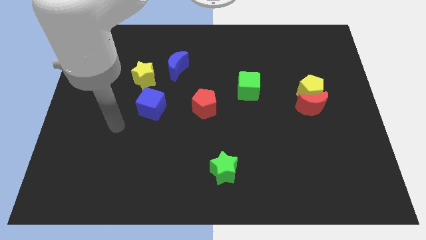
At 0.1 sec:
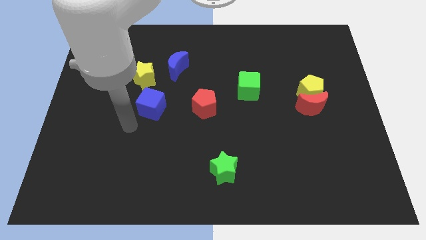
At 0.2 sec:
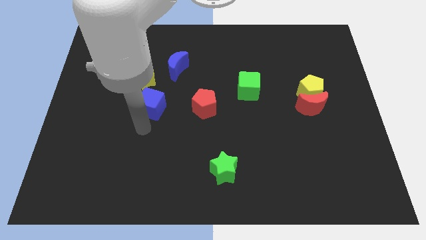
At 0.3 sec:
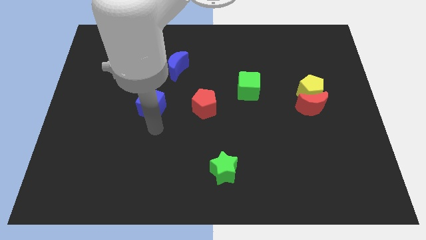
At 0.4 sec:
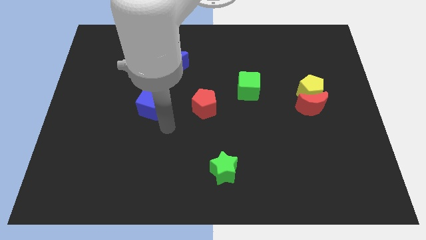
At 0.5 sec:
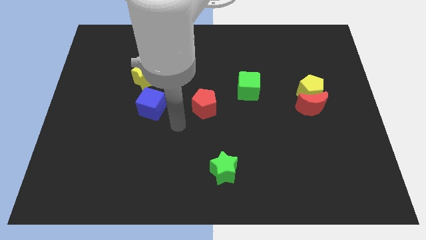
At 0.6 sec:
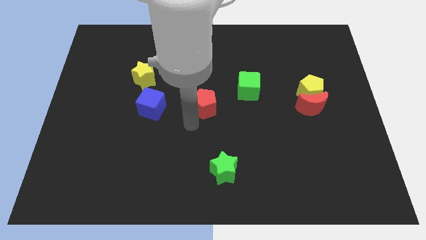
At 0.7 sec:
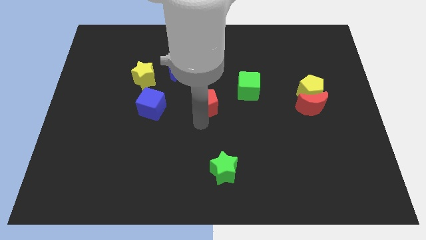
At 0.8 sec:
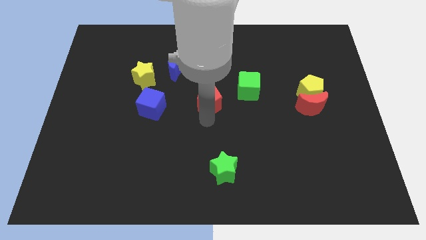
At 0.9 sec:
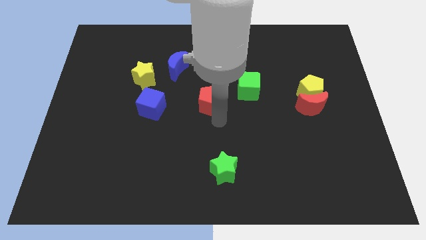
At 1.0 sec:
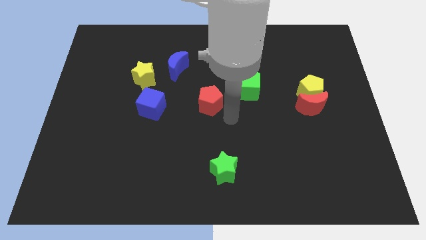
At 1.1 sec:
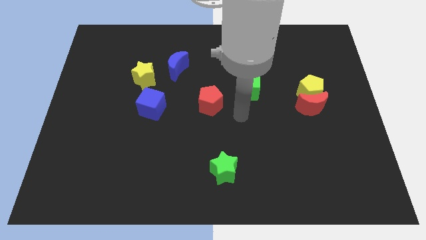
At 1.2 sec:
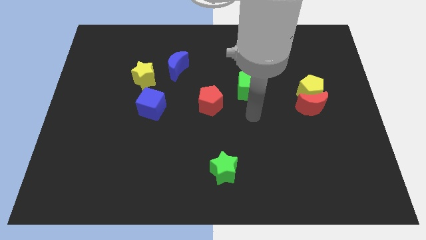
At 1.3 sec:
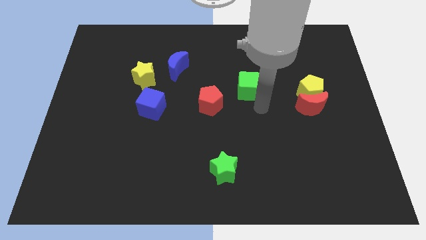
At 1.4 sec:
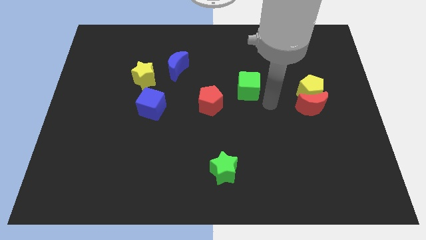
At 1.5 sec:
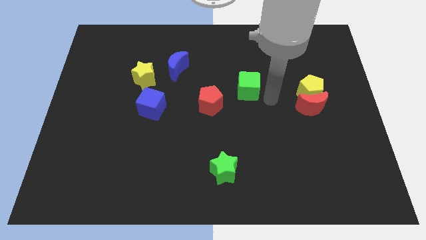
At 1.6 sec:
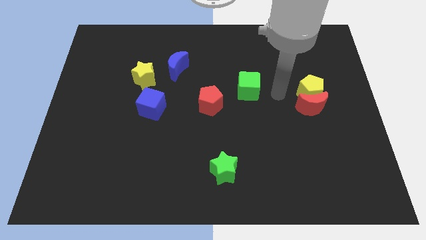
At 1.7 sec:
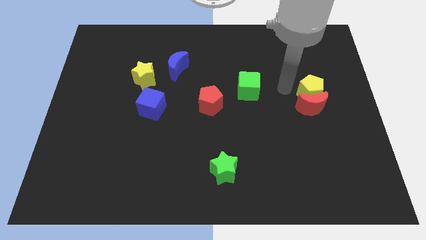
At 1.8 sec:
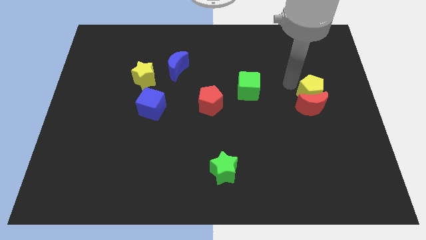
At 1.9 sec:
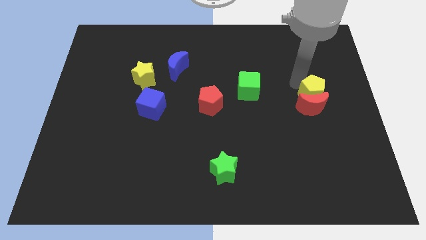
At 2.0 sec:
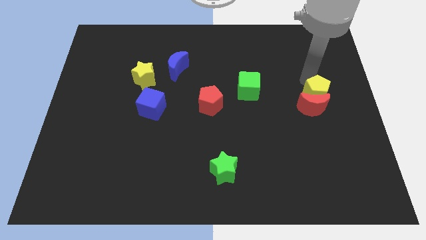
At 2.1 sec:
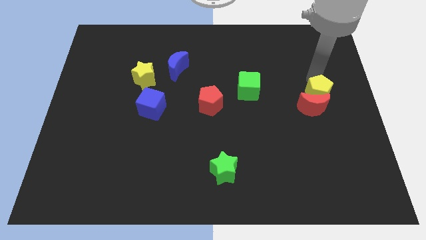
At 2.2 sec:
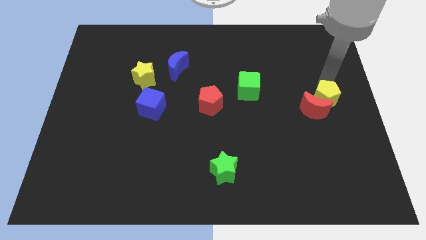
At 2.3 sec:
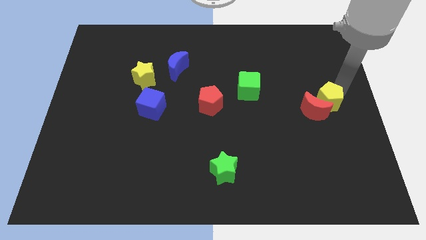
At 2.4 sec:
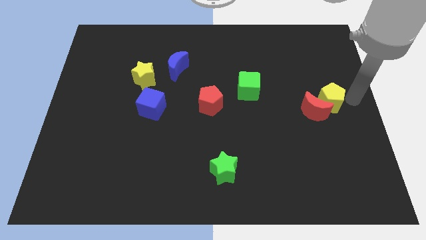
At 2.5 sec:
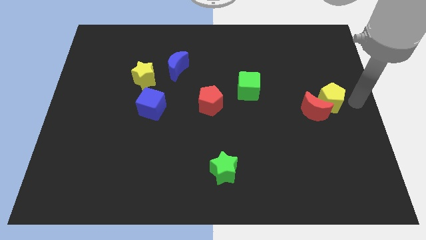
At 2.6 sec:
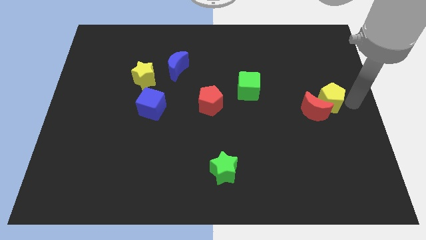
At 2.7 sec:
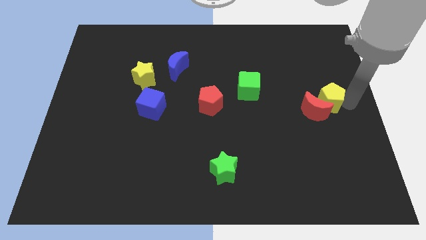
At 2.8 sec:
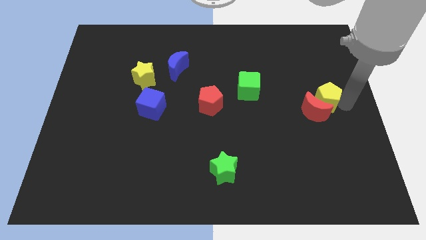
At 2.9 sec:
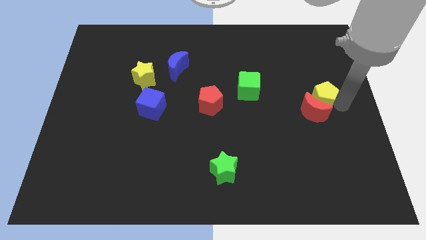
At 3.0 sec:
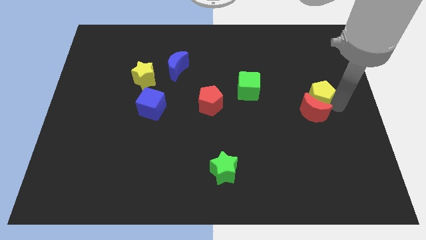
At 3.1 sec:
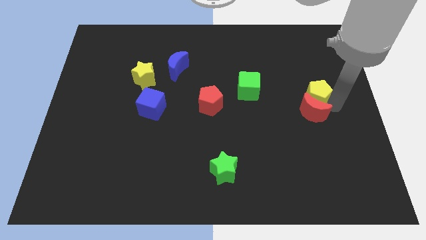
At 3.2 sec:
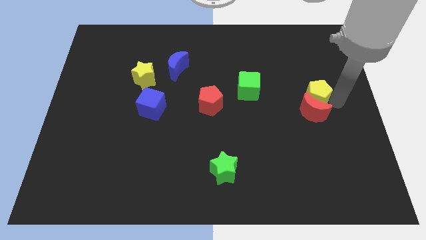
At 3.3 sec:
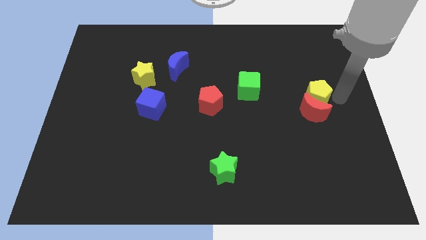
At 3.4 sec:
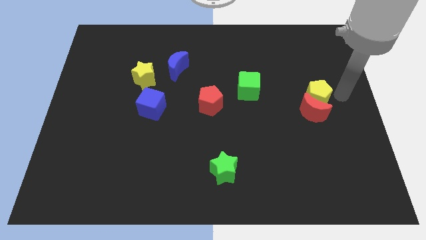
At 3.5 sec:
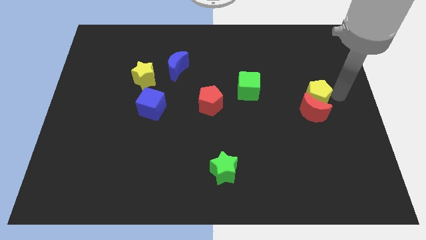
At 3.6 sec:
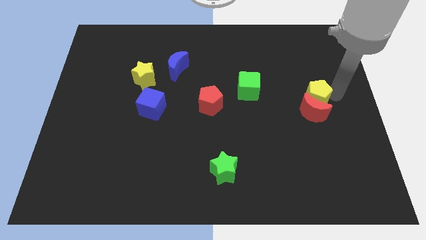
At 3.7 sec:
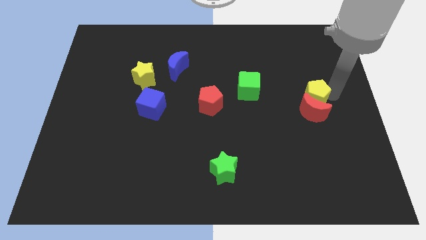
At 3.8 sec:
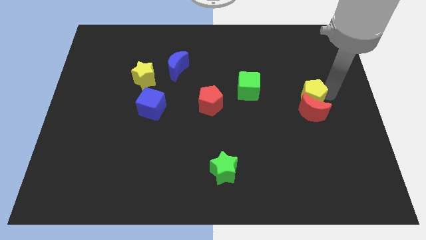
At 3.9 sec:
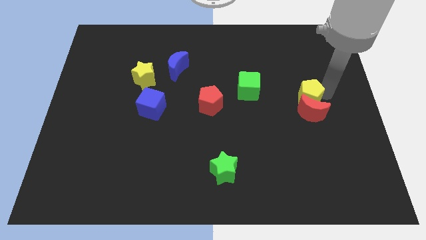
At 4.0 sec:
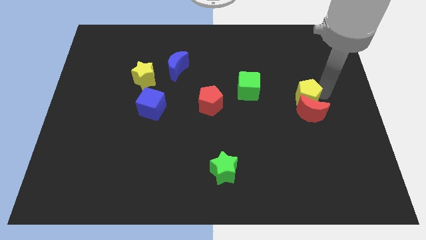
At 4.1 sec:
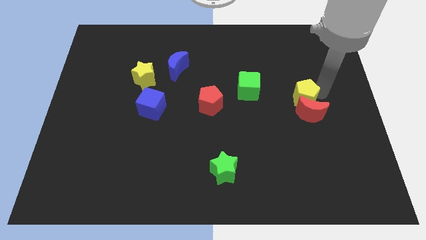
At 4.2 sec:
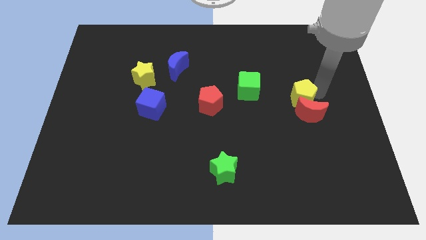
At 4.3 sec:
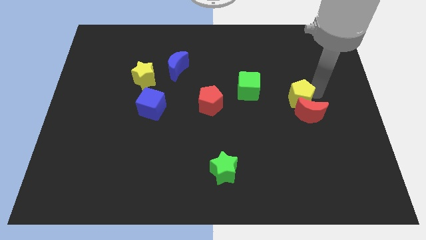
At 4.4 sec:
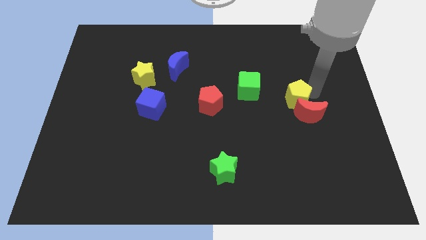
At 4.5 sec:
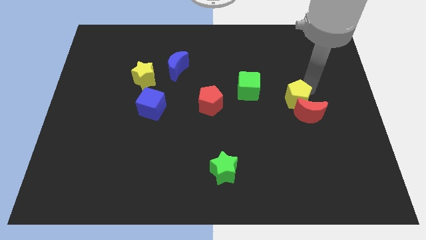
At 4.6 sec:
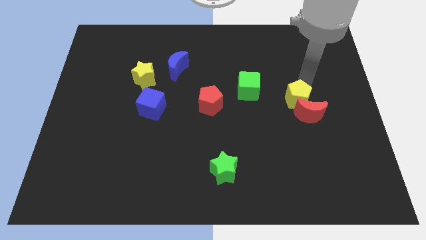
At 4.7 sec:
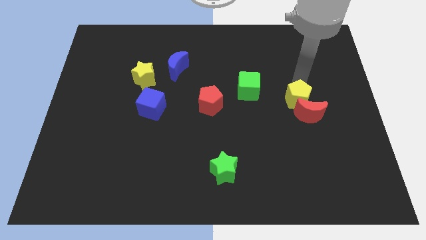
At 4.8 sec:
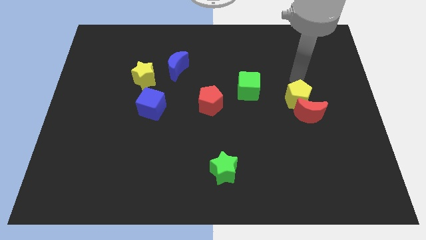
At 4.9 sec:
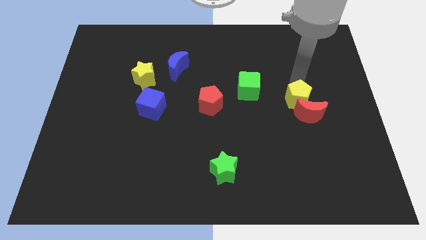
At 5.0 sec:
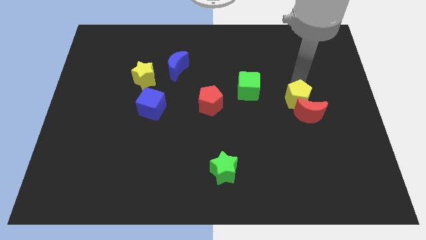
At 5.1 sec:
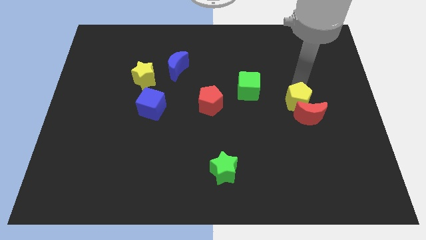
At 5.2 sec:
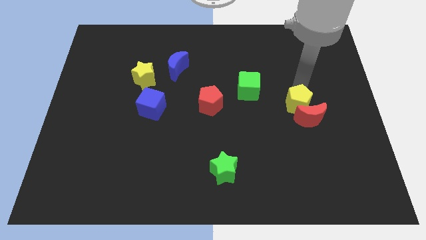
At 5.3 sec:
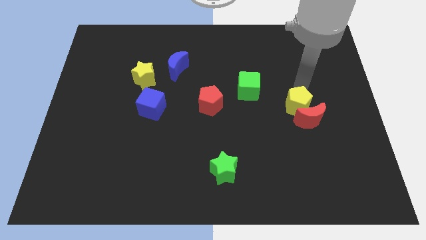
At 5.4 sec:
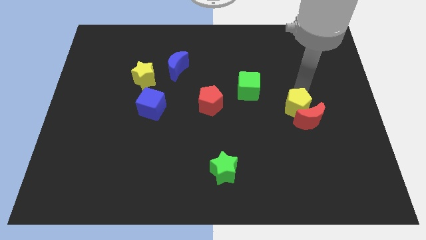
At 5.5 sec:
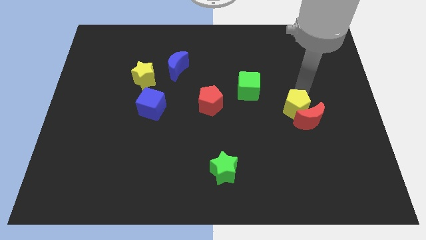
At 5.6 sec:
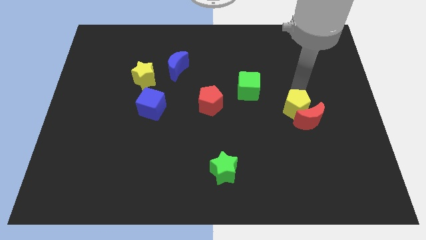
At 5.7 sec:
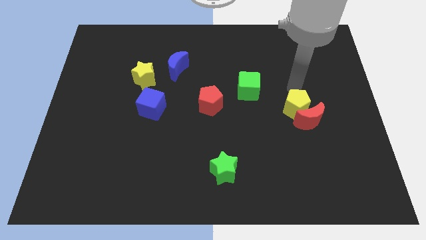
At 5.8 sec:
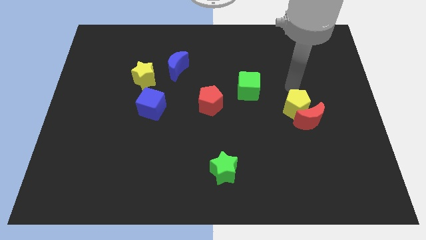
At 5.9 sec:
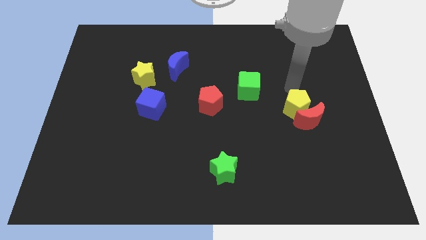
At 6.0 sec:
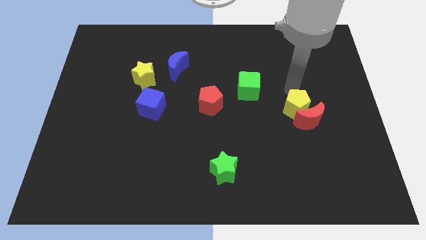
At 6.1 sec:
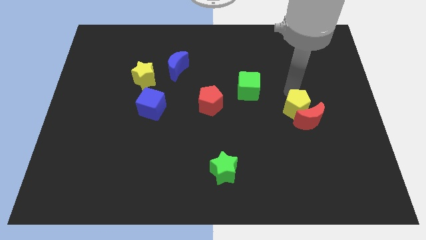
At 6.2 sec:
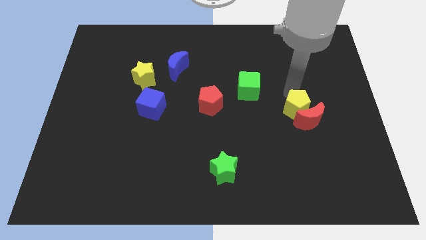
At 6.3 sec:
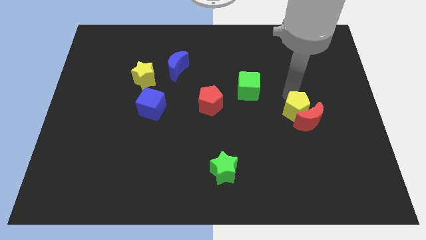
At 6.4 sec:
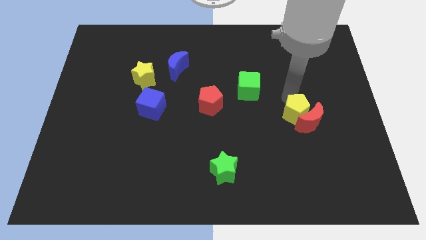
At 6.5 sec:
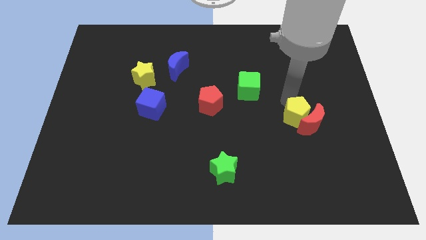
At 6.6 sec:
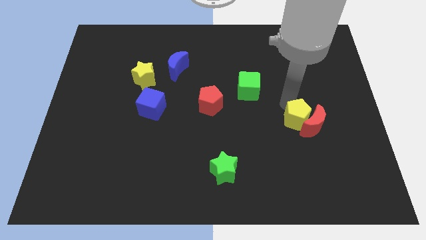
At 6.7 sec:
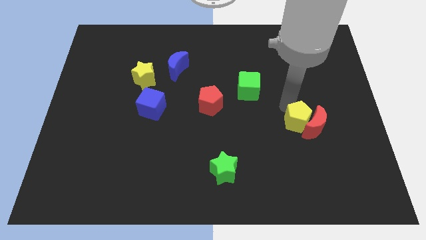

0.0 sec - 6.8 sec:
push the yellow pentagon somewhat downwards

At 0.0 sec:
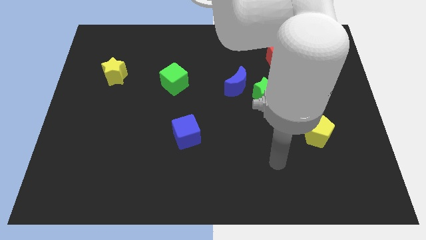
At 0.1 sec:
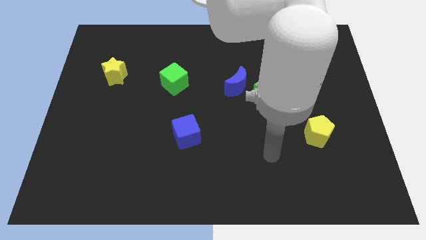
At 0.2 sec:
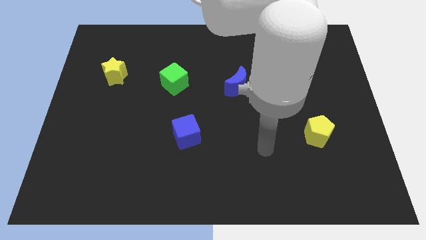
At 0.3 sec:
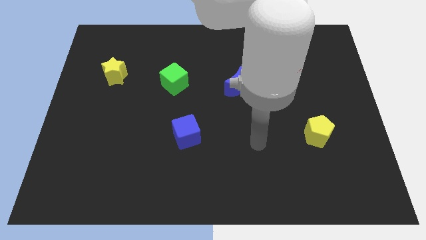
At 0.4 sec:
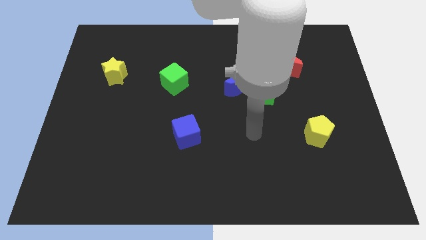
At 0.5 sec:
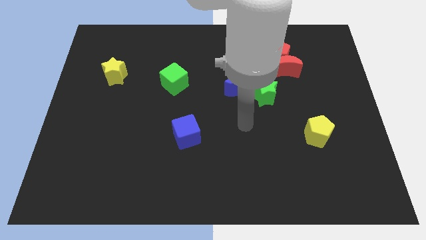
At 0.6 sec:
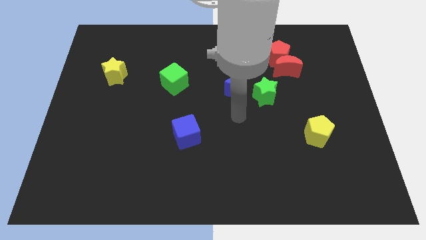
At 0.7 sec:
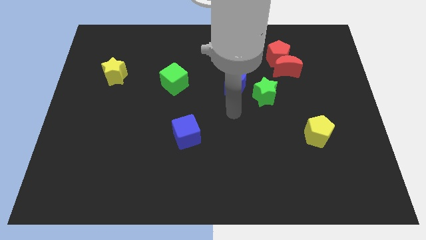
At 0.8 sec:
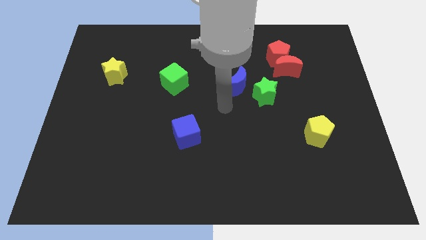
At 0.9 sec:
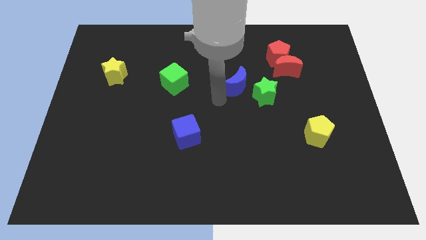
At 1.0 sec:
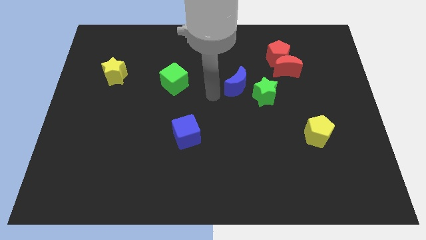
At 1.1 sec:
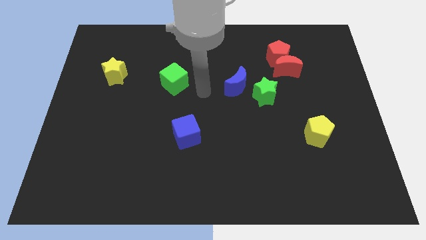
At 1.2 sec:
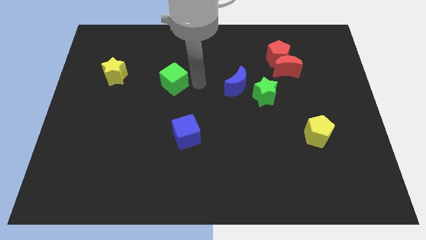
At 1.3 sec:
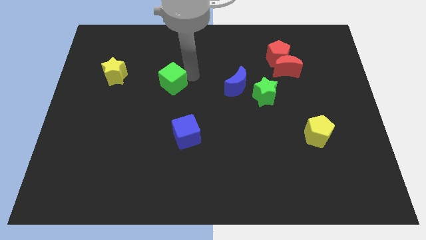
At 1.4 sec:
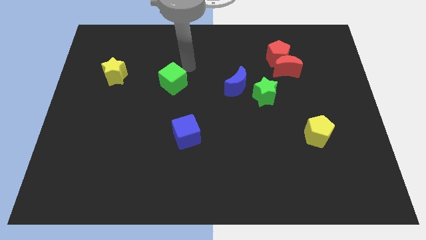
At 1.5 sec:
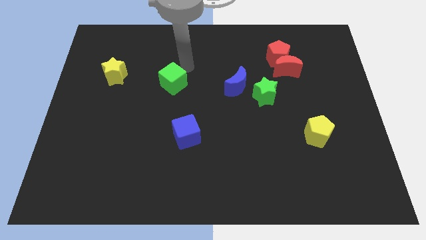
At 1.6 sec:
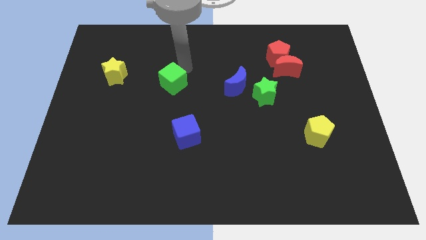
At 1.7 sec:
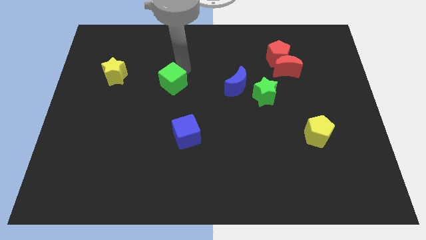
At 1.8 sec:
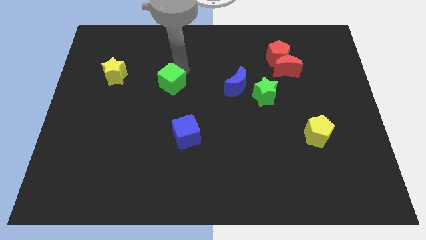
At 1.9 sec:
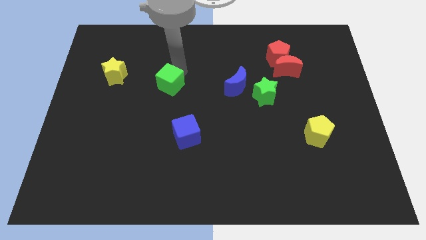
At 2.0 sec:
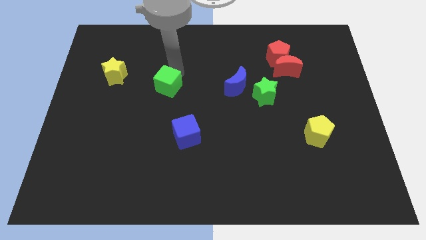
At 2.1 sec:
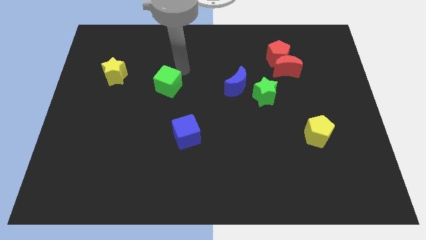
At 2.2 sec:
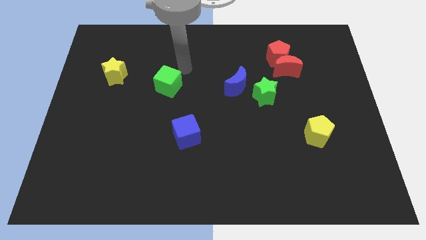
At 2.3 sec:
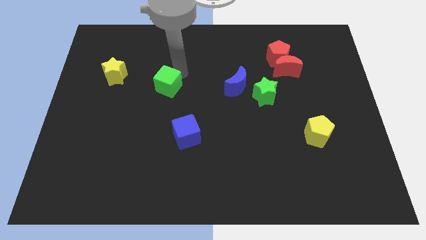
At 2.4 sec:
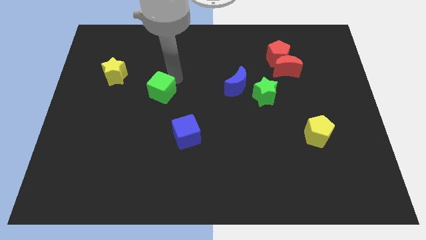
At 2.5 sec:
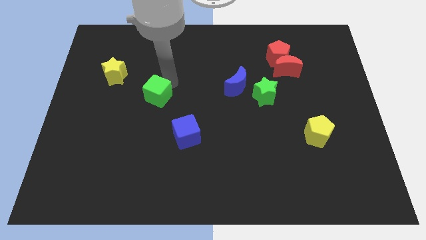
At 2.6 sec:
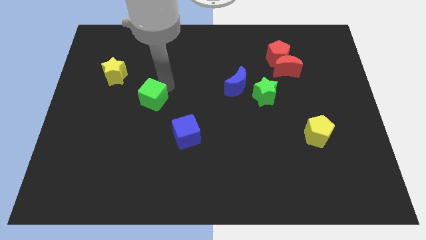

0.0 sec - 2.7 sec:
slide the green cube slightly down and then left
